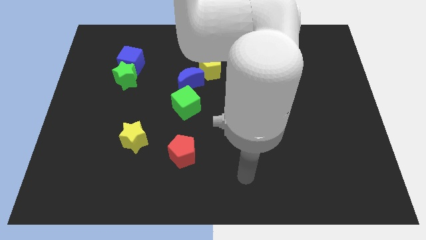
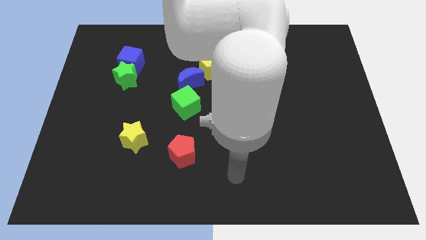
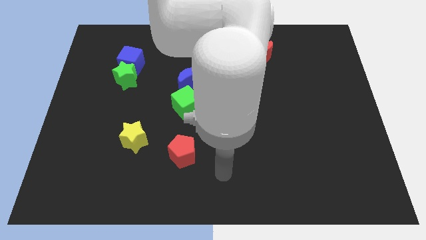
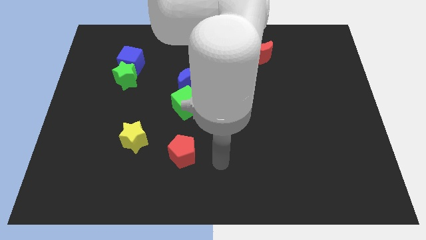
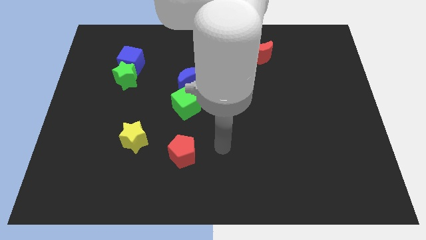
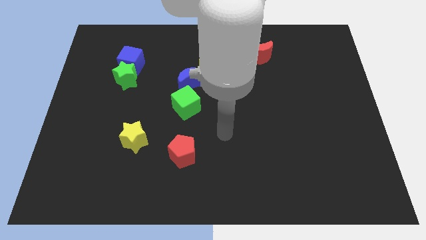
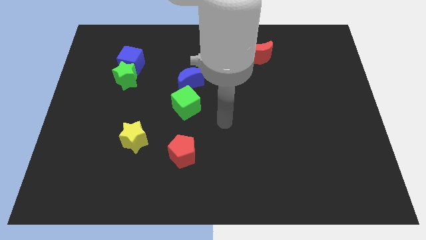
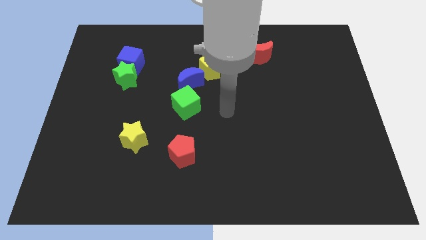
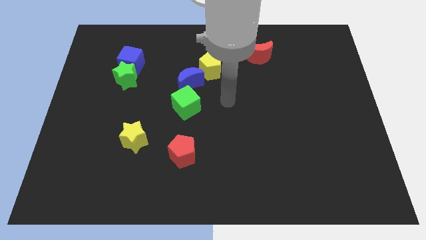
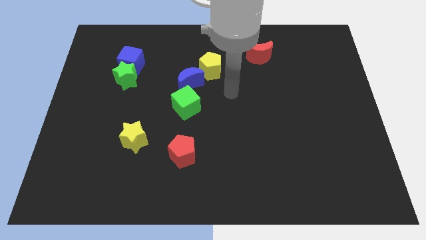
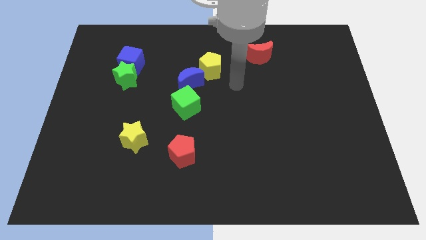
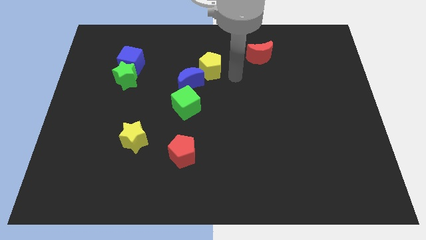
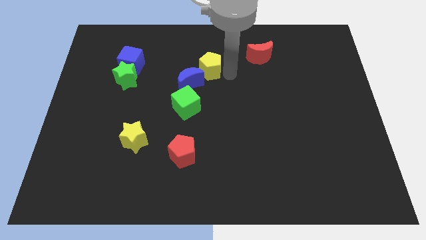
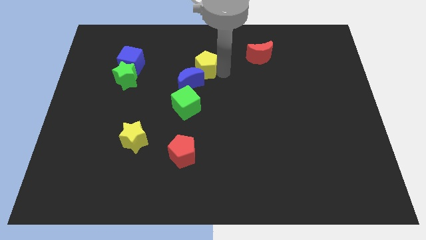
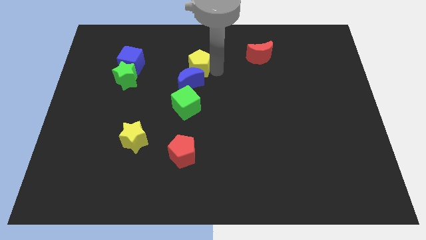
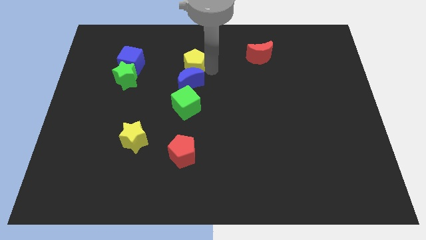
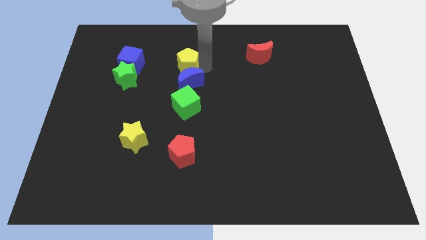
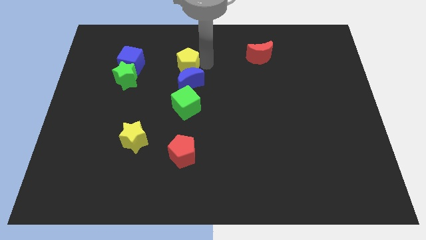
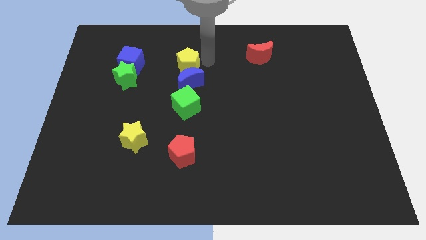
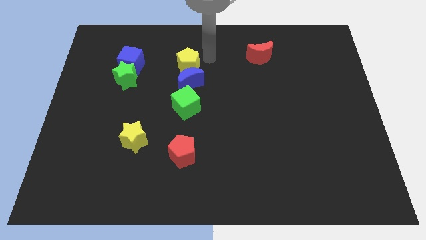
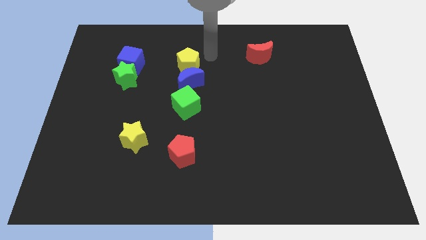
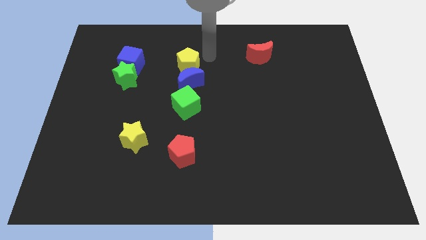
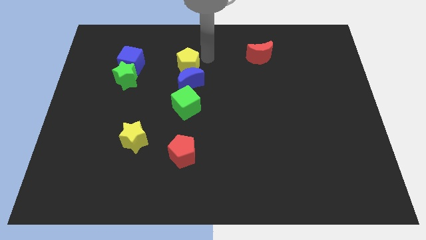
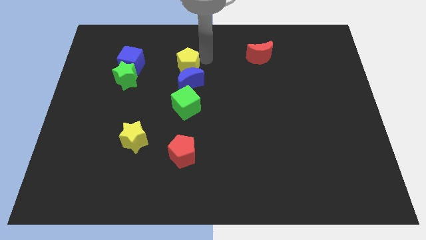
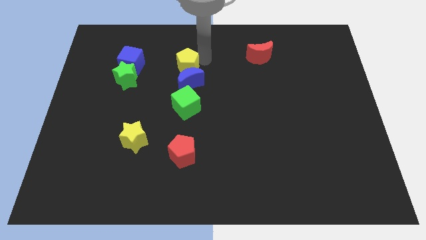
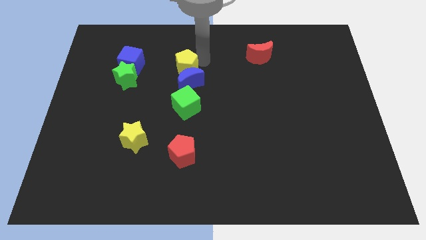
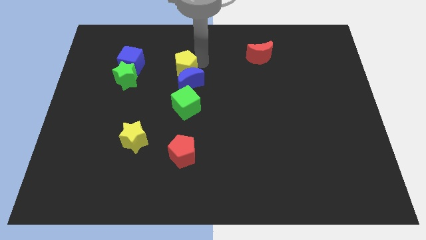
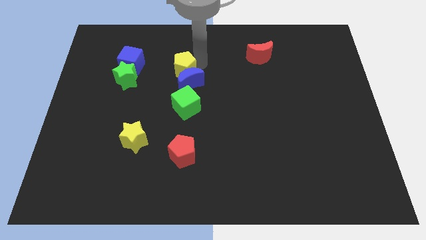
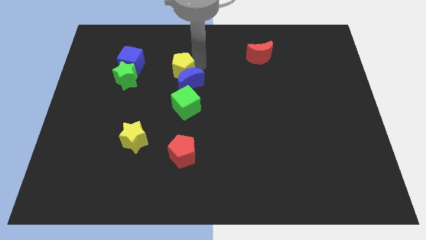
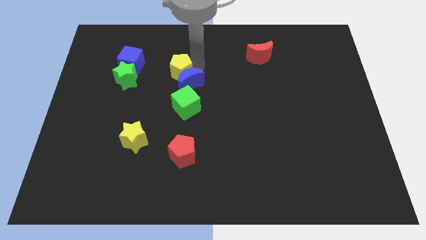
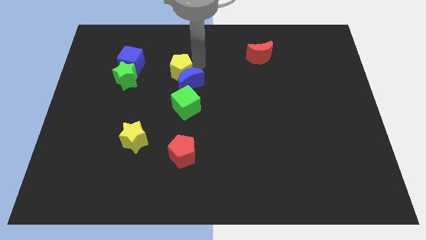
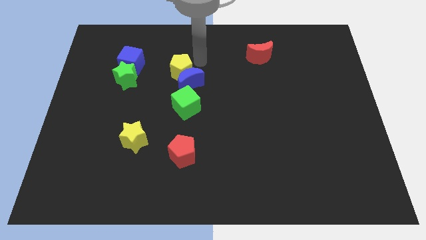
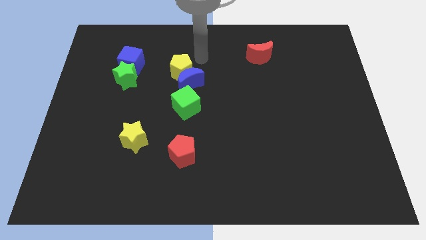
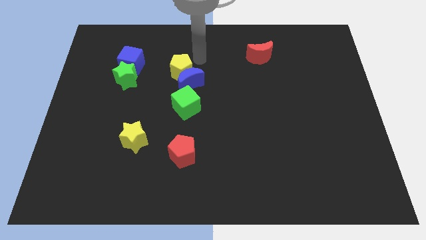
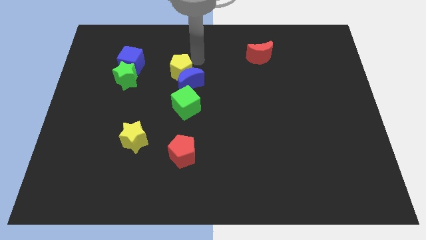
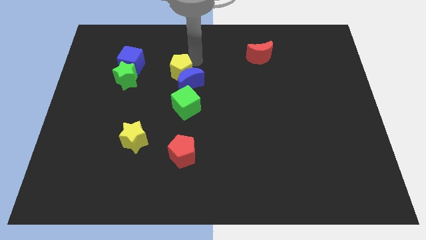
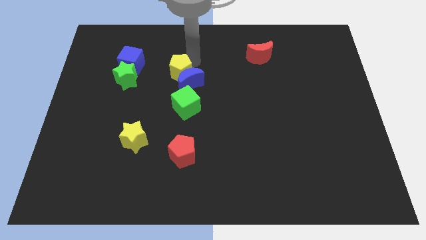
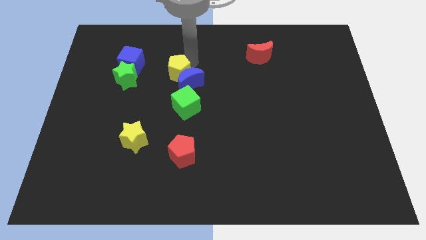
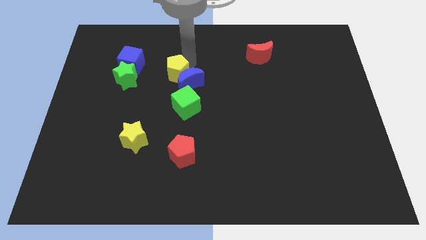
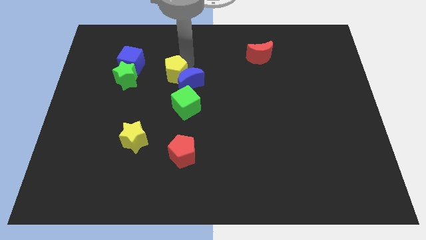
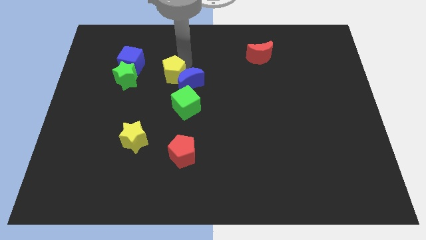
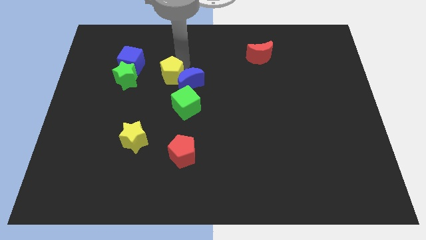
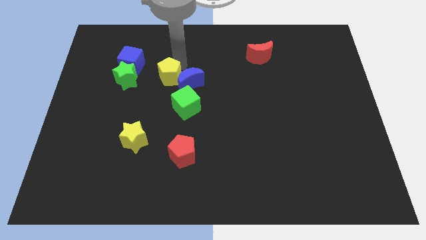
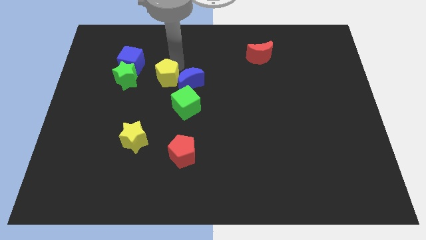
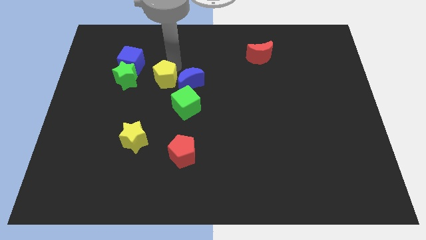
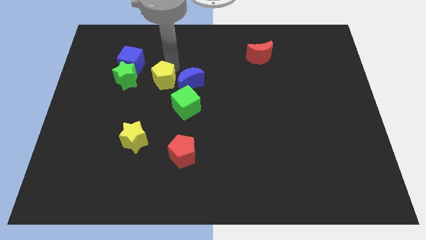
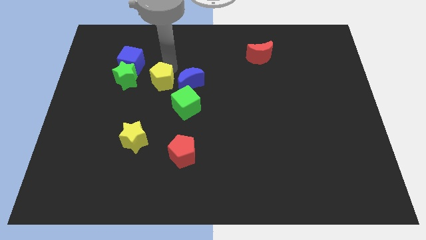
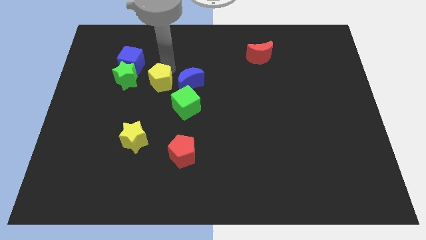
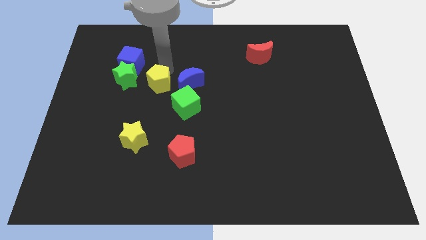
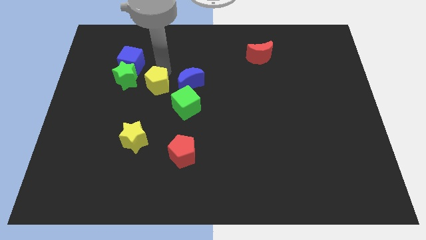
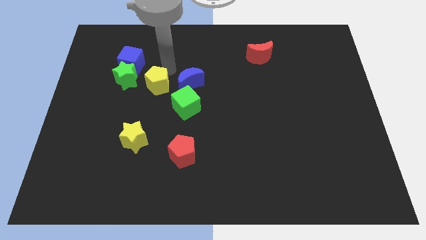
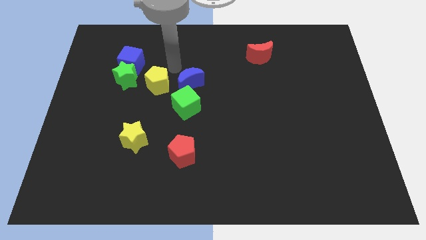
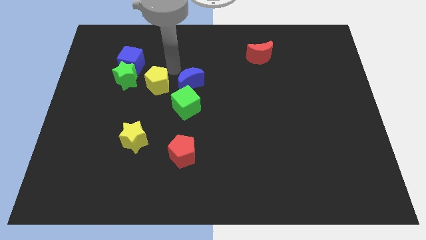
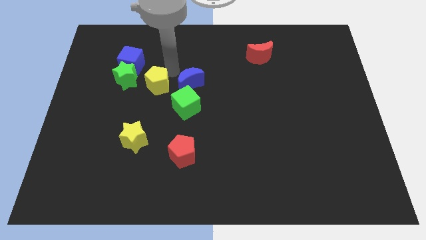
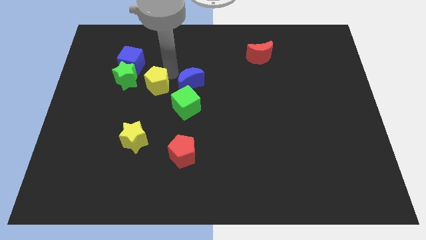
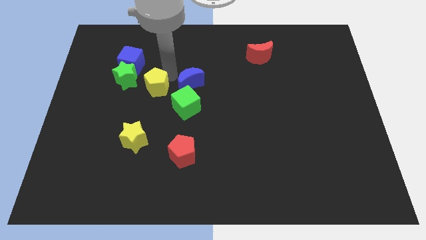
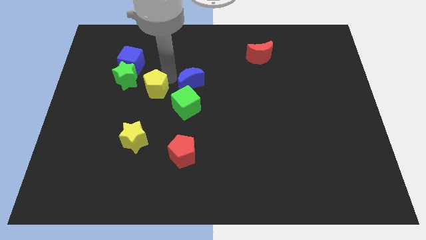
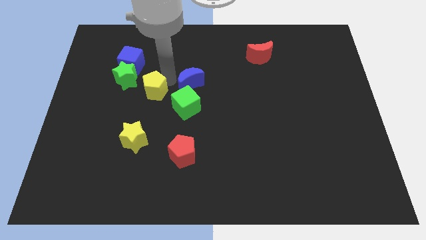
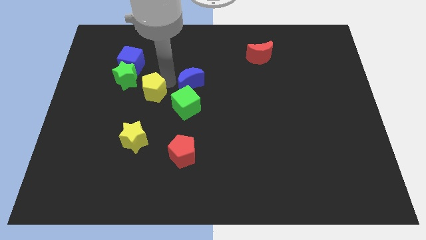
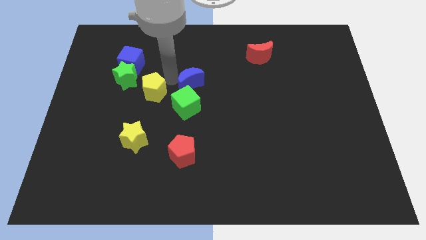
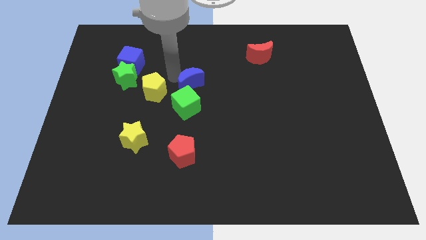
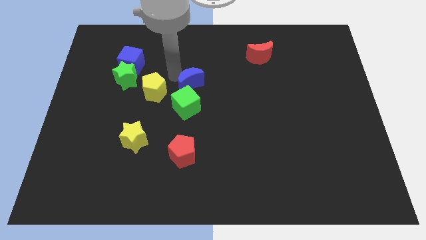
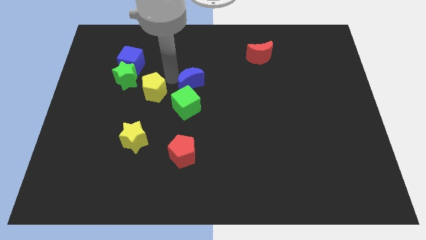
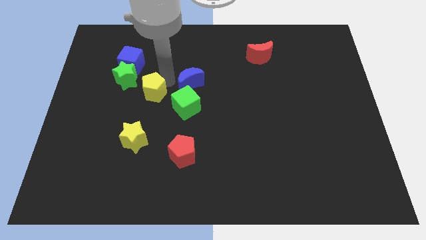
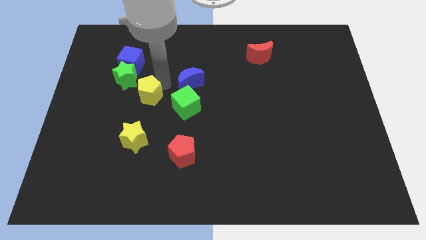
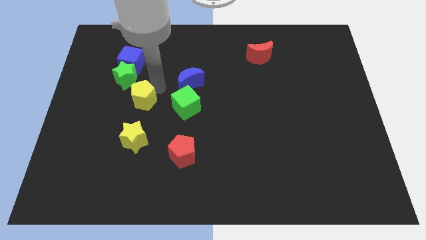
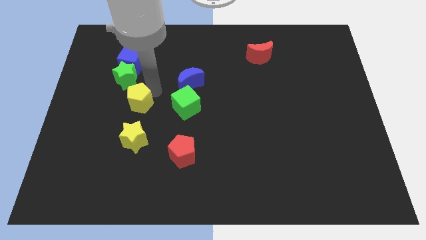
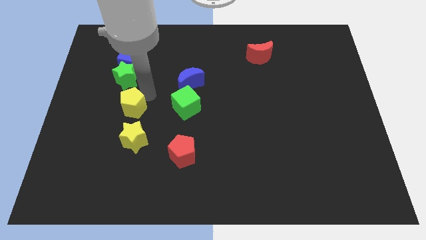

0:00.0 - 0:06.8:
move the yellow pentagon down and then to the left

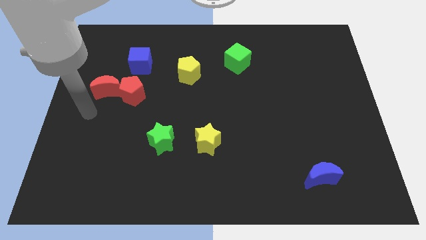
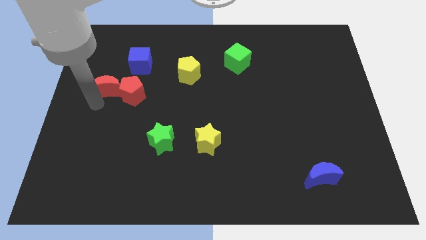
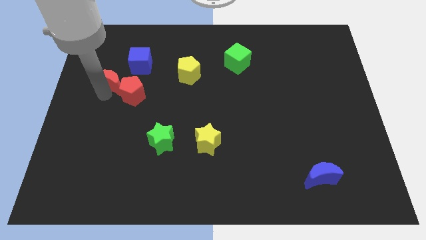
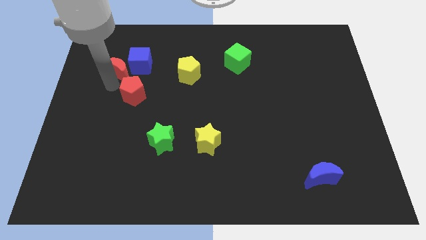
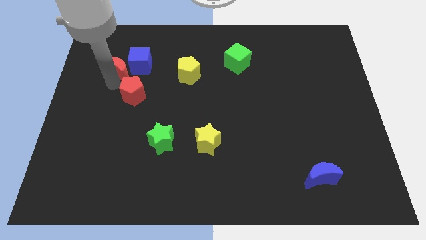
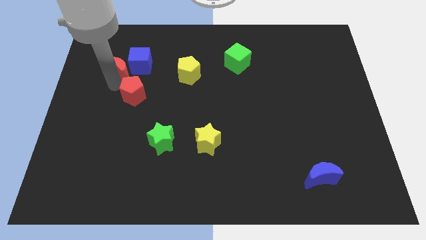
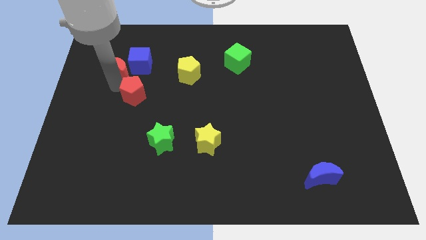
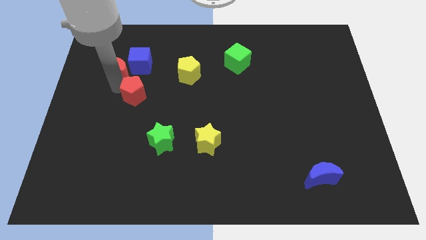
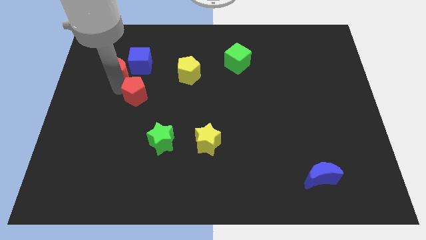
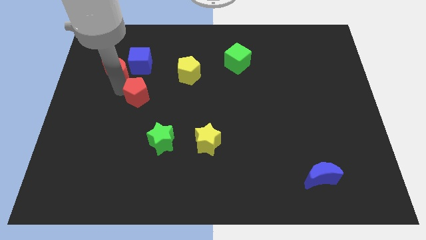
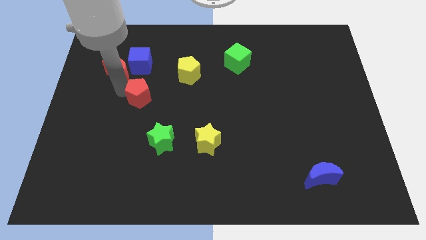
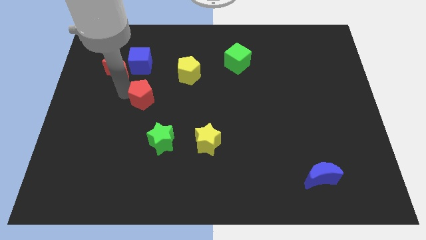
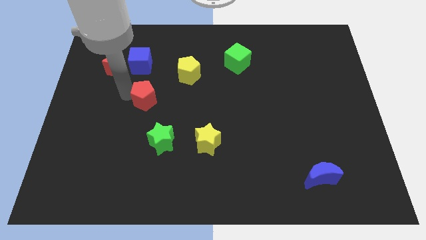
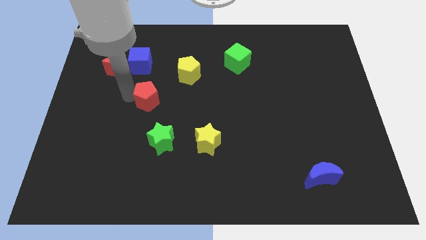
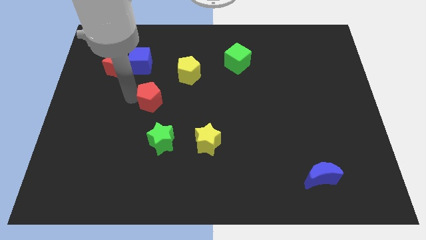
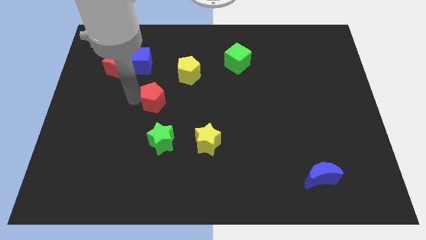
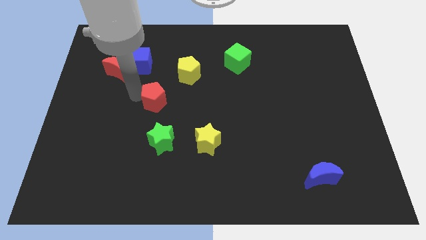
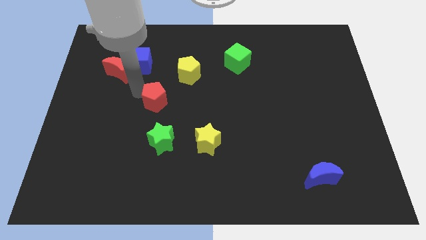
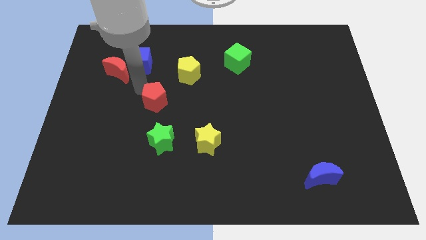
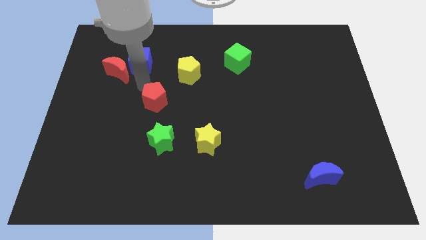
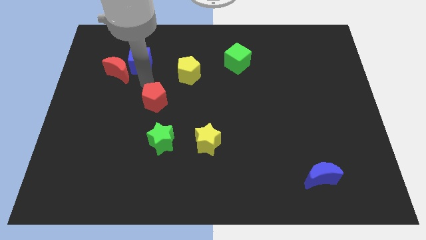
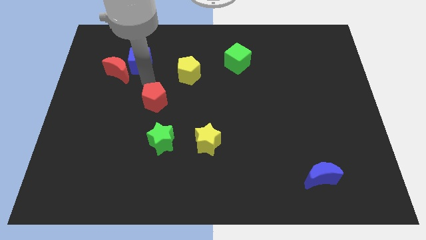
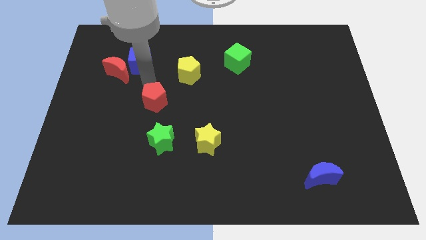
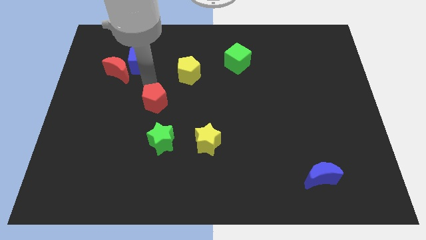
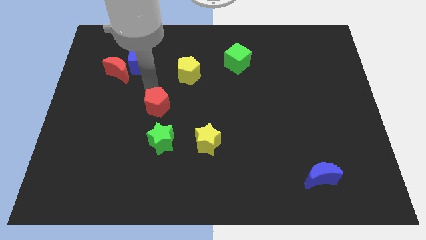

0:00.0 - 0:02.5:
push the red pentagon a little diagonally down and right
